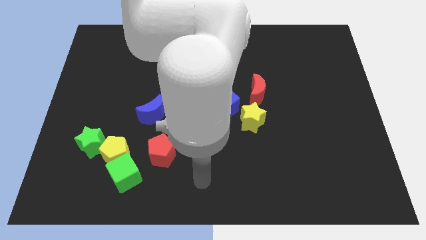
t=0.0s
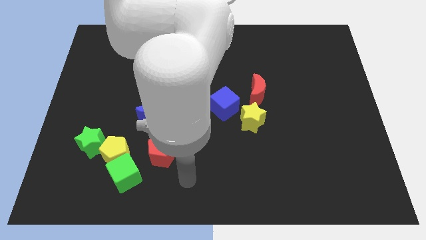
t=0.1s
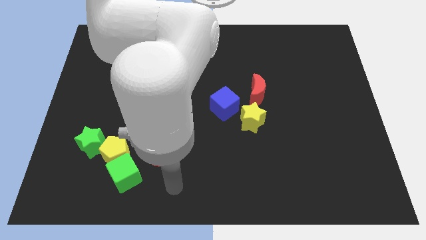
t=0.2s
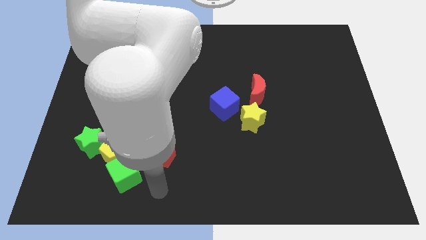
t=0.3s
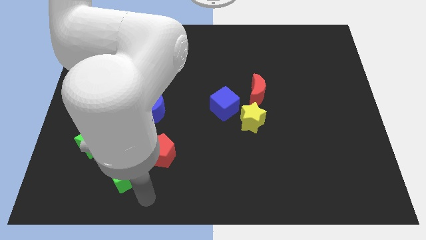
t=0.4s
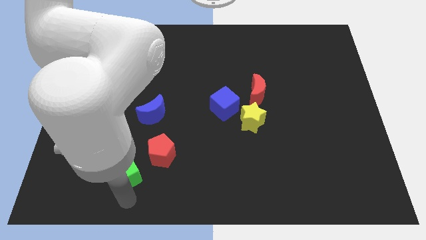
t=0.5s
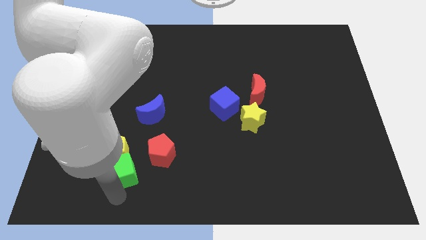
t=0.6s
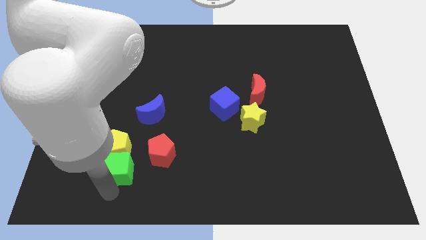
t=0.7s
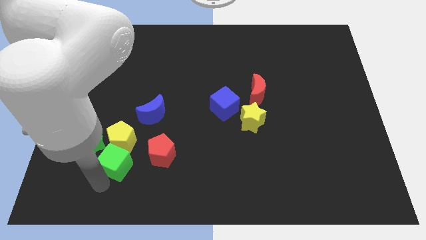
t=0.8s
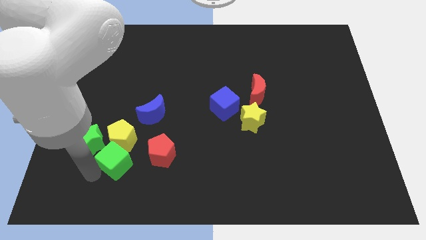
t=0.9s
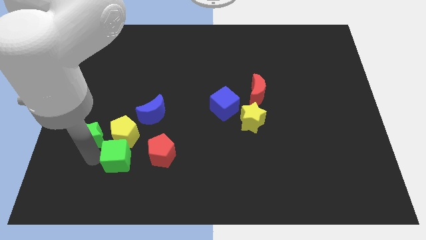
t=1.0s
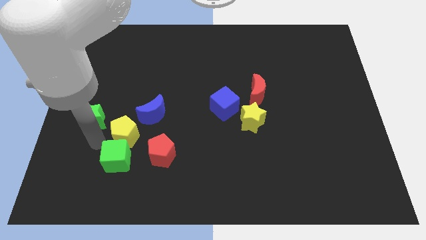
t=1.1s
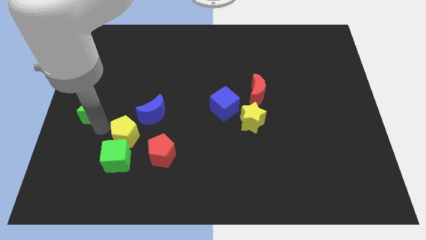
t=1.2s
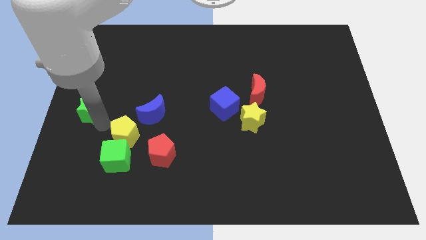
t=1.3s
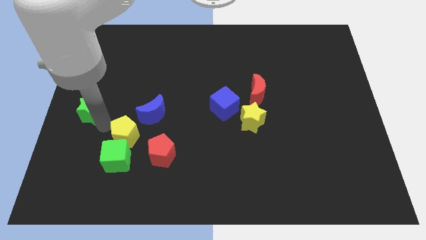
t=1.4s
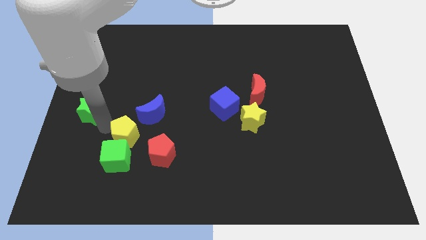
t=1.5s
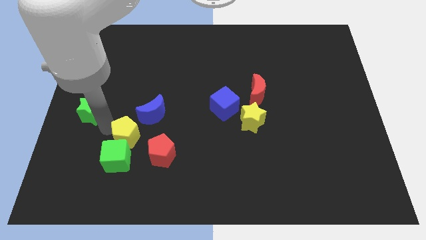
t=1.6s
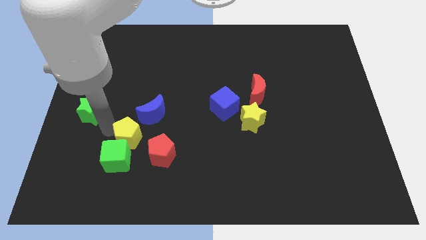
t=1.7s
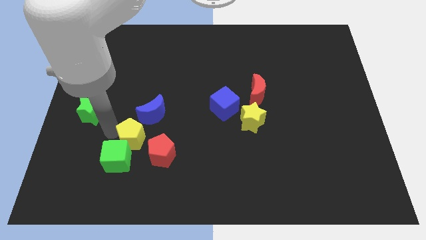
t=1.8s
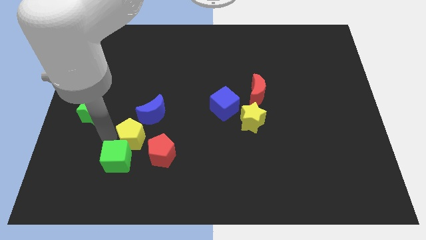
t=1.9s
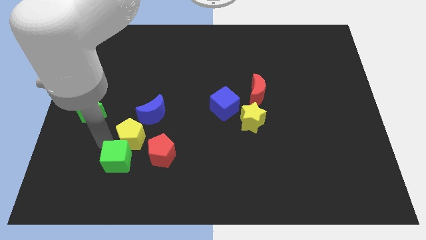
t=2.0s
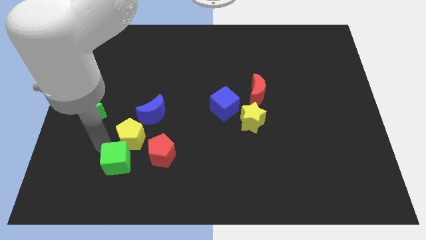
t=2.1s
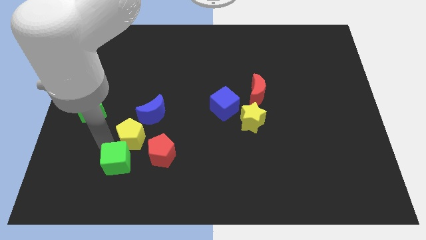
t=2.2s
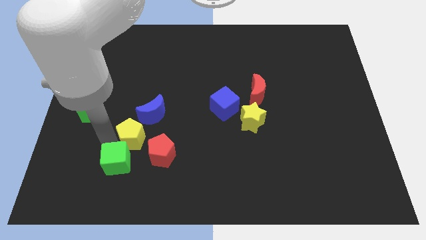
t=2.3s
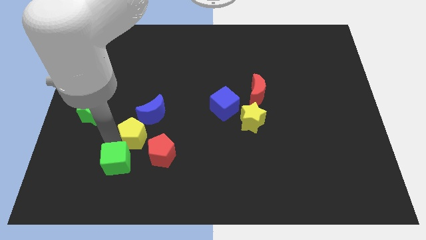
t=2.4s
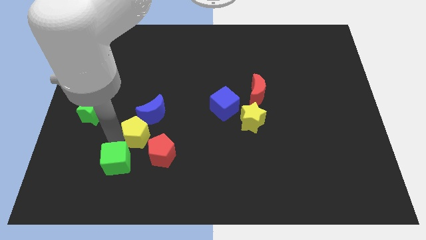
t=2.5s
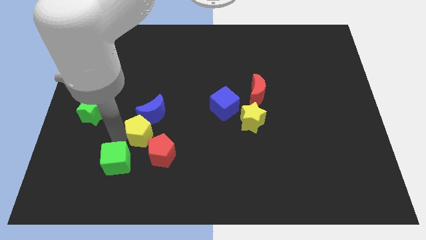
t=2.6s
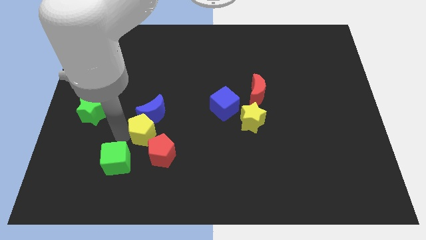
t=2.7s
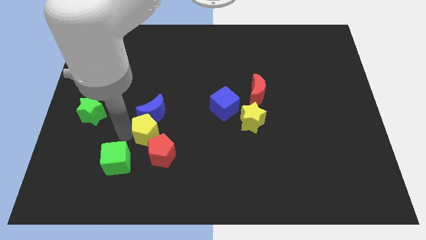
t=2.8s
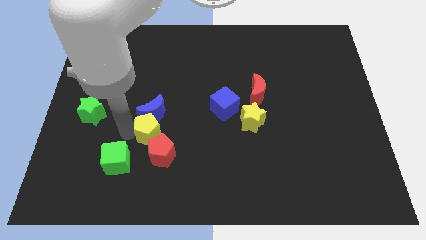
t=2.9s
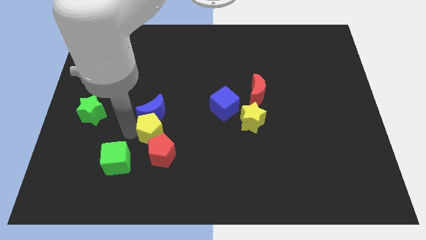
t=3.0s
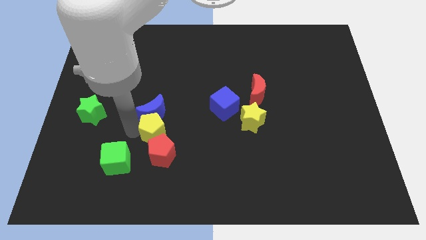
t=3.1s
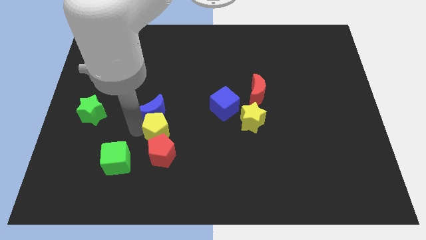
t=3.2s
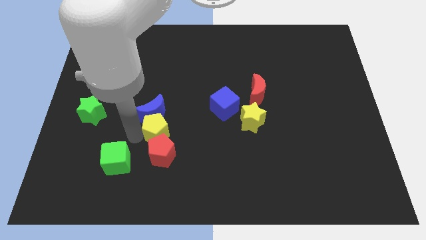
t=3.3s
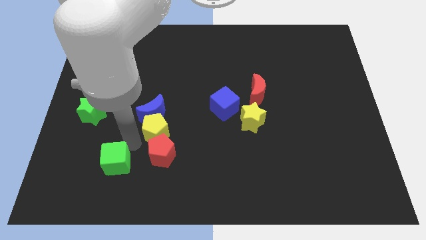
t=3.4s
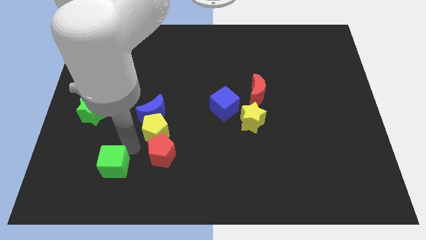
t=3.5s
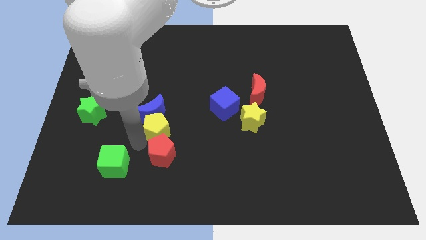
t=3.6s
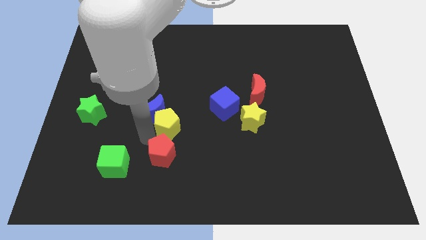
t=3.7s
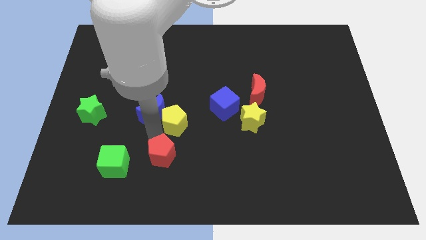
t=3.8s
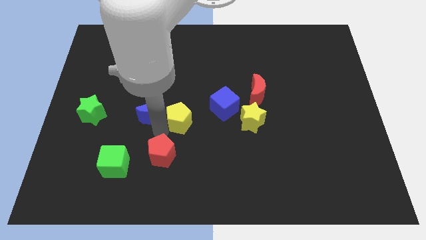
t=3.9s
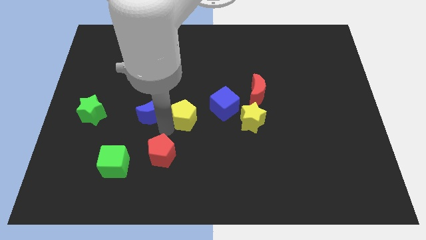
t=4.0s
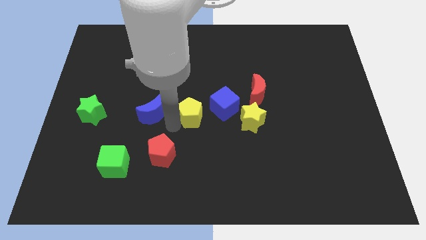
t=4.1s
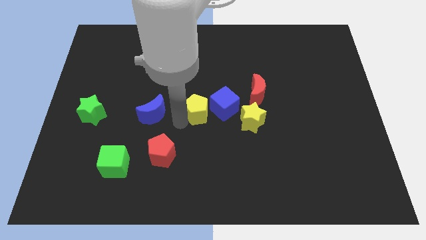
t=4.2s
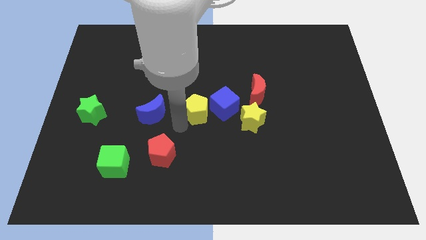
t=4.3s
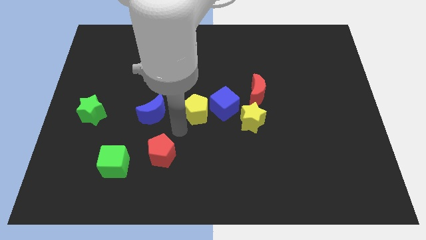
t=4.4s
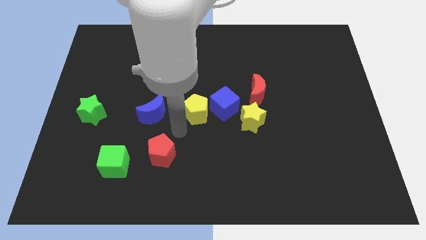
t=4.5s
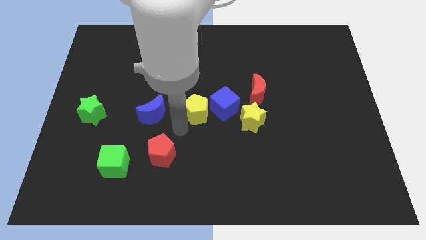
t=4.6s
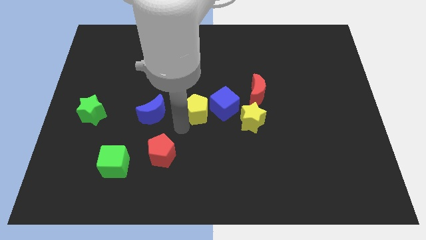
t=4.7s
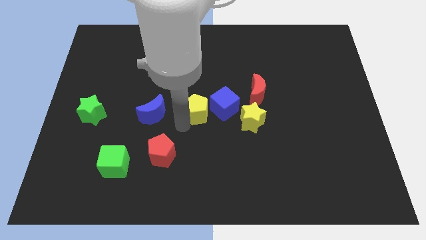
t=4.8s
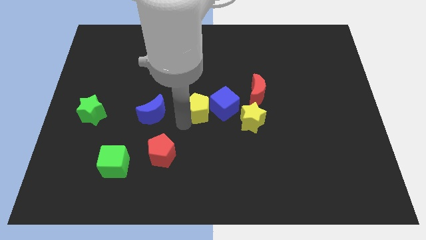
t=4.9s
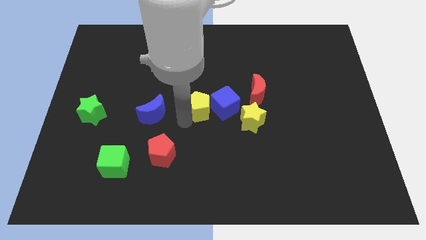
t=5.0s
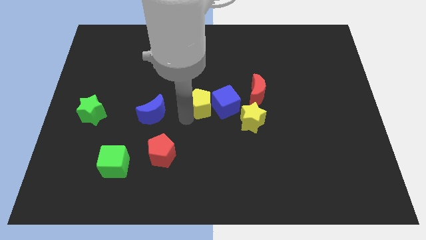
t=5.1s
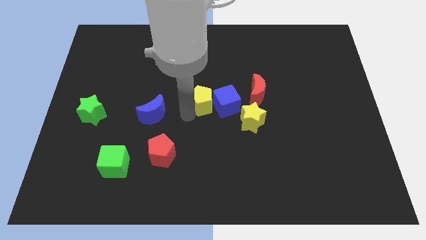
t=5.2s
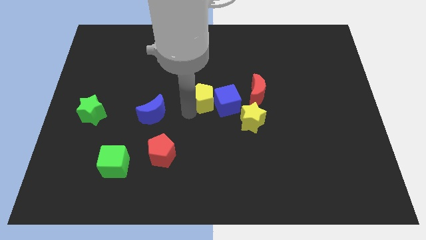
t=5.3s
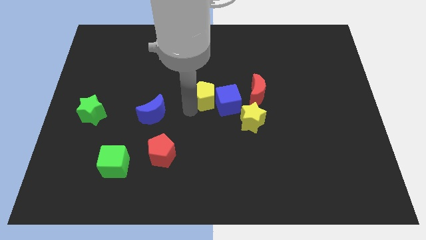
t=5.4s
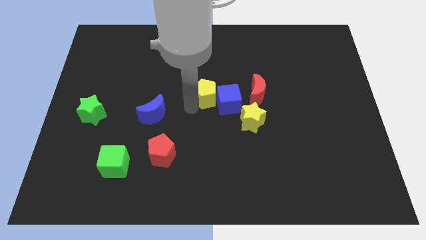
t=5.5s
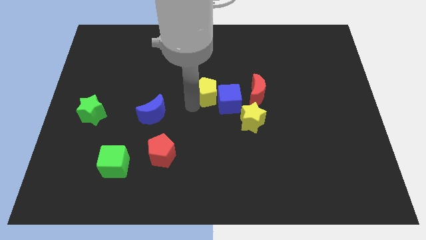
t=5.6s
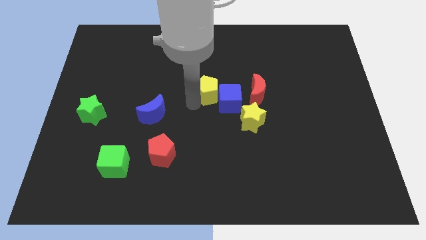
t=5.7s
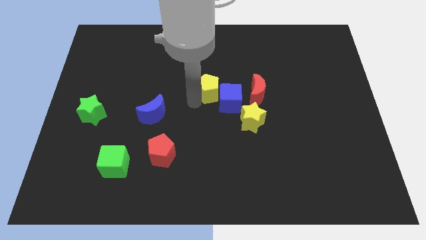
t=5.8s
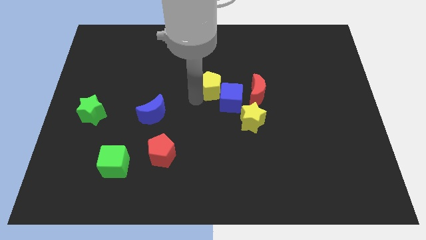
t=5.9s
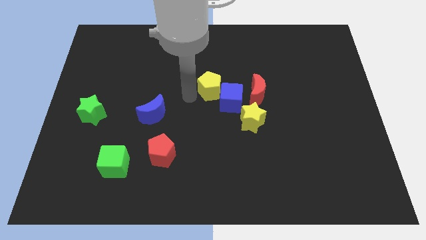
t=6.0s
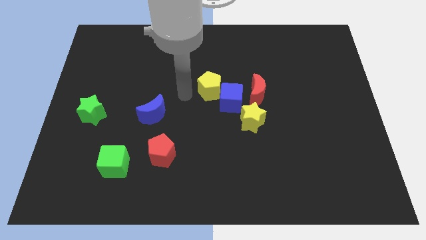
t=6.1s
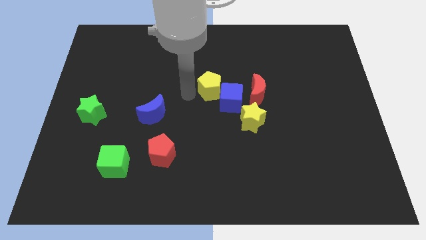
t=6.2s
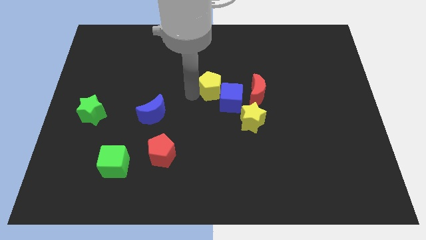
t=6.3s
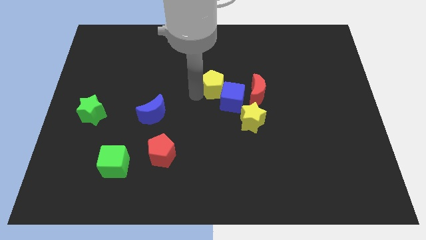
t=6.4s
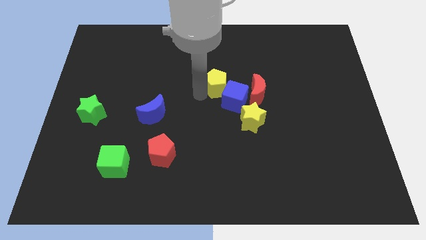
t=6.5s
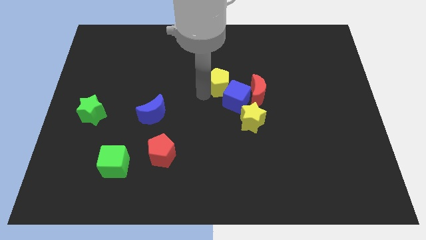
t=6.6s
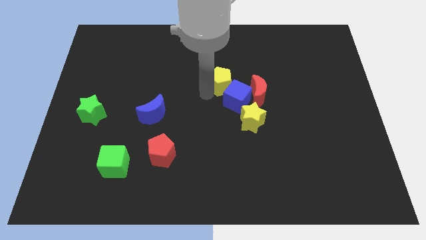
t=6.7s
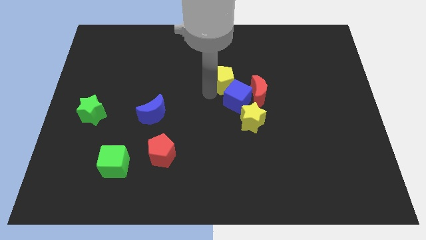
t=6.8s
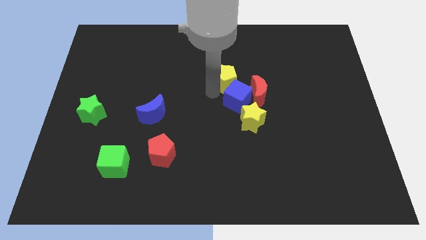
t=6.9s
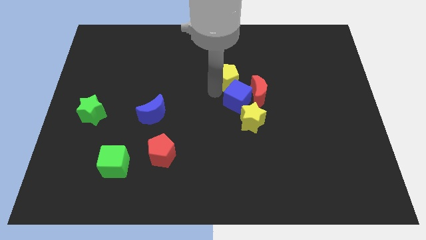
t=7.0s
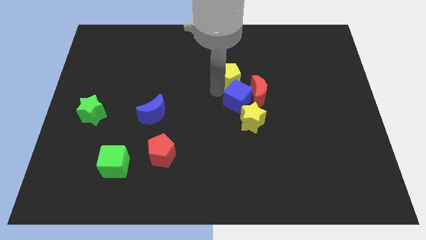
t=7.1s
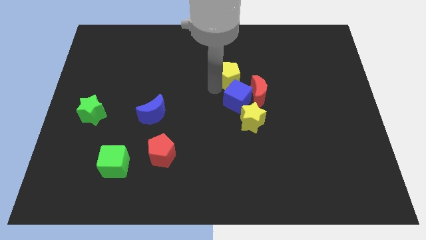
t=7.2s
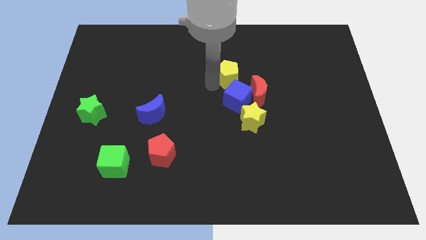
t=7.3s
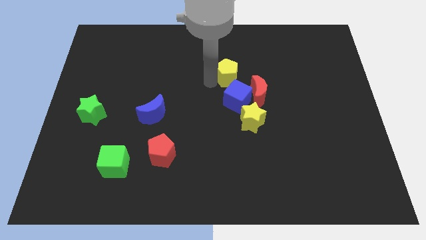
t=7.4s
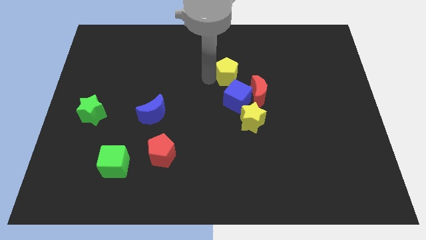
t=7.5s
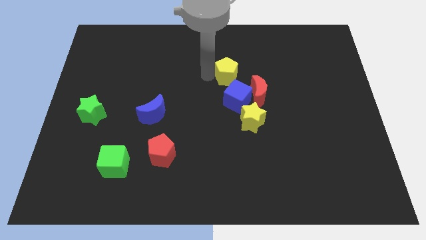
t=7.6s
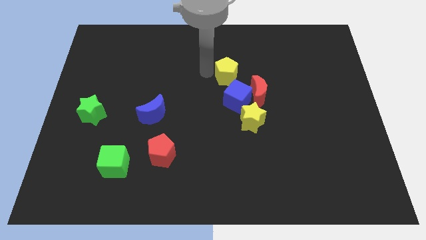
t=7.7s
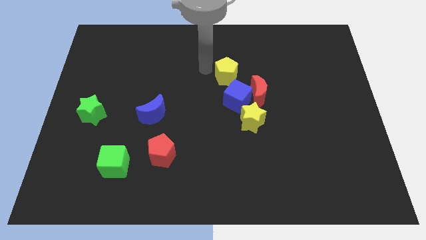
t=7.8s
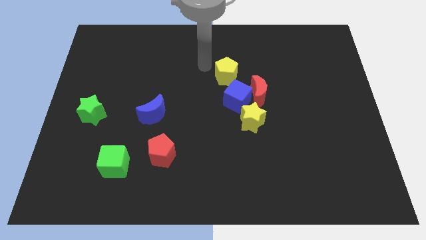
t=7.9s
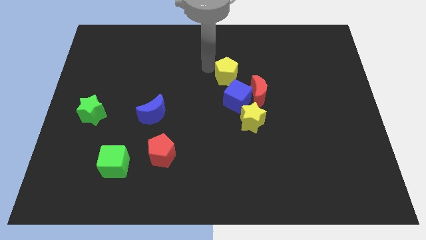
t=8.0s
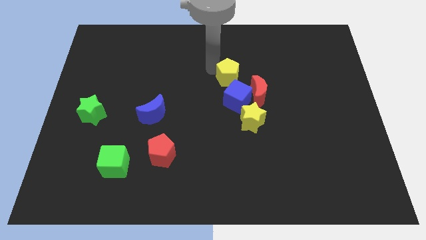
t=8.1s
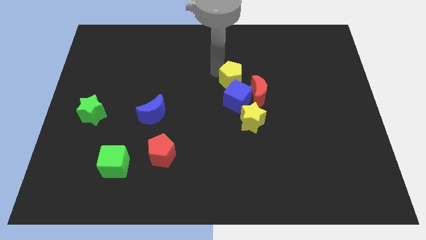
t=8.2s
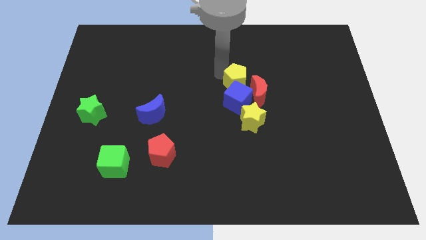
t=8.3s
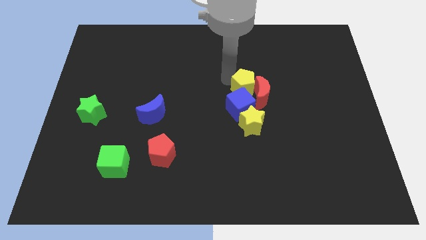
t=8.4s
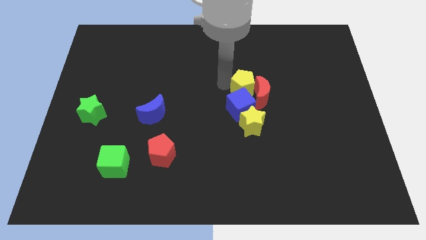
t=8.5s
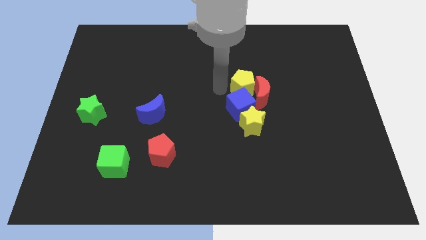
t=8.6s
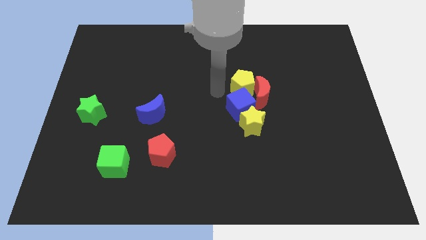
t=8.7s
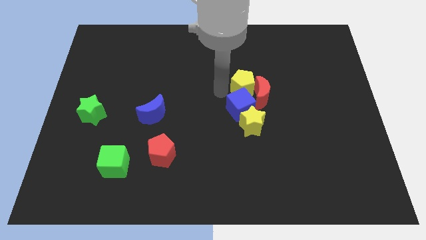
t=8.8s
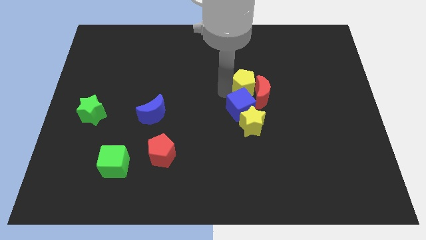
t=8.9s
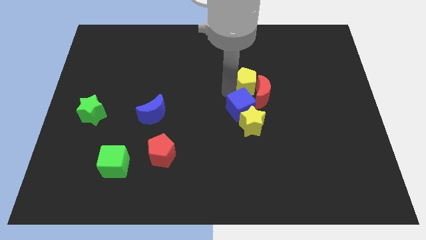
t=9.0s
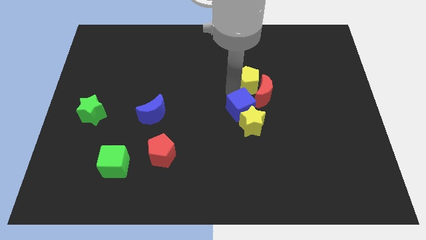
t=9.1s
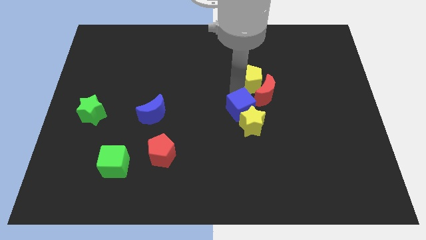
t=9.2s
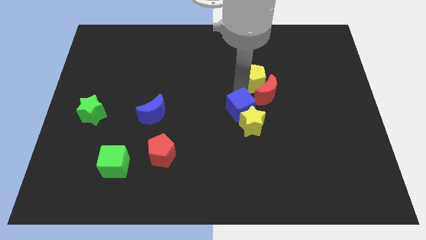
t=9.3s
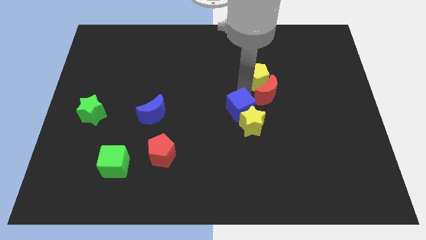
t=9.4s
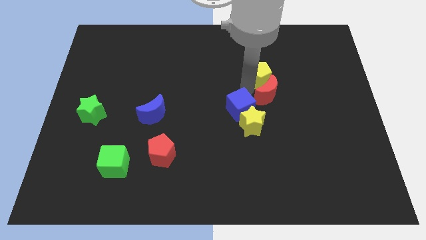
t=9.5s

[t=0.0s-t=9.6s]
move the yellow pentagon to the top right side of the red moon
